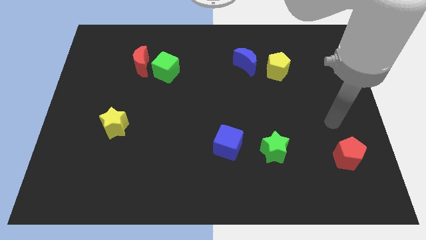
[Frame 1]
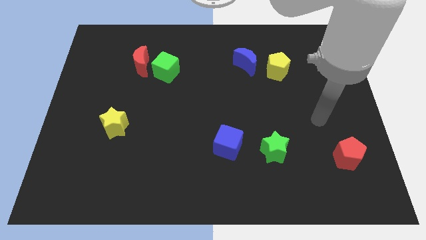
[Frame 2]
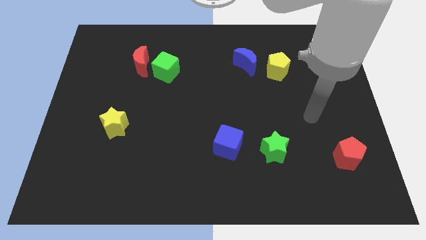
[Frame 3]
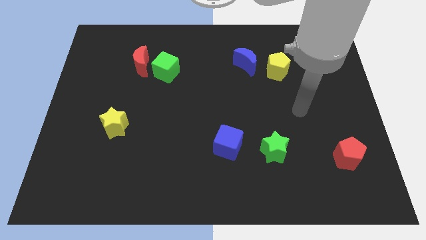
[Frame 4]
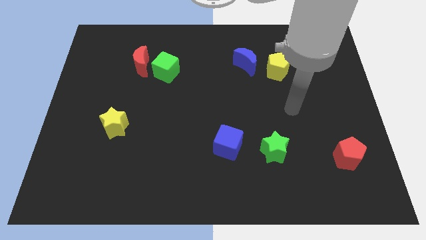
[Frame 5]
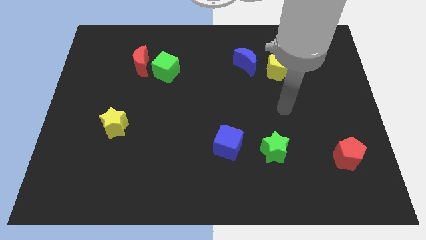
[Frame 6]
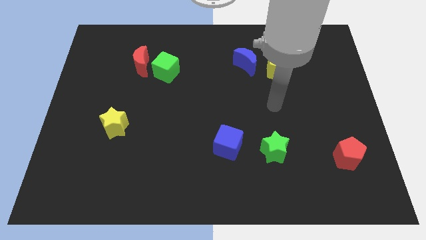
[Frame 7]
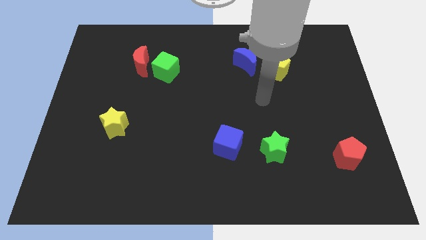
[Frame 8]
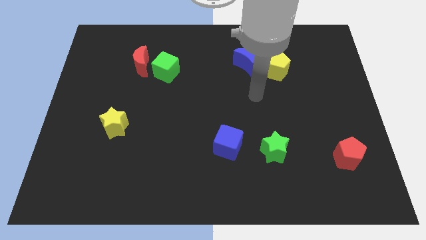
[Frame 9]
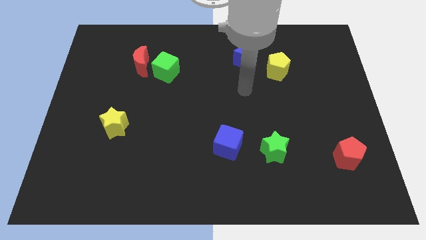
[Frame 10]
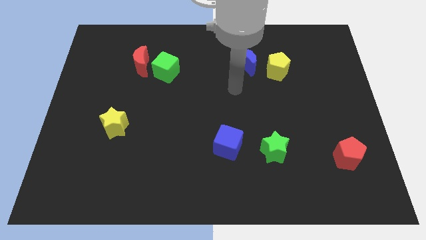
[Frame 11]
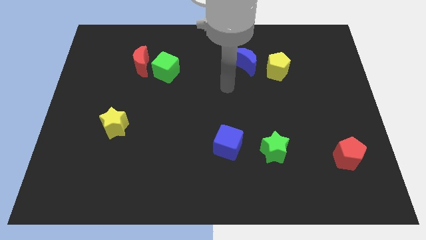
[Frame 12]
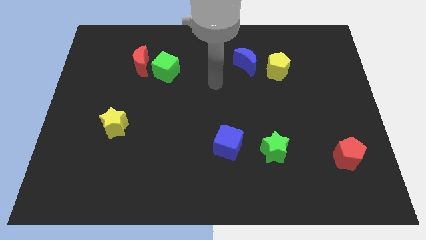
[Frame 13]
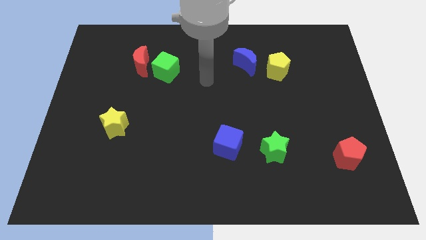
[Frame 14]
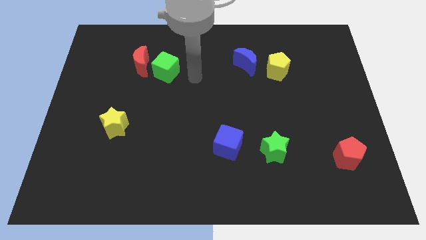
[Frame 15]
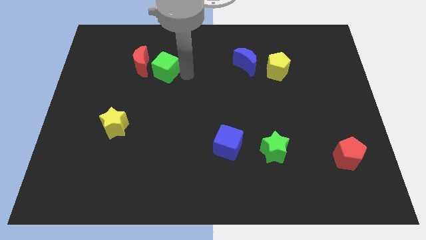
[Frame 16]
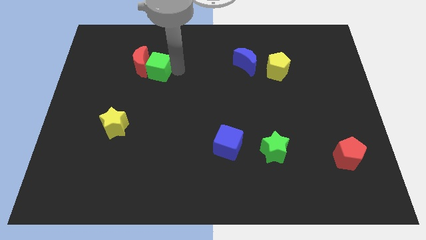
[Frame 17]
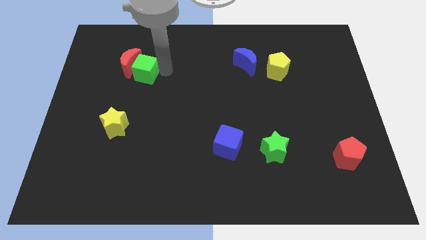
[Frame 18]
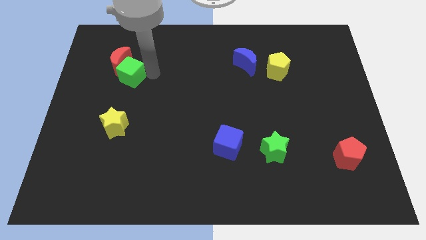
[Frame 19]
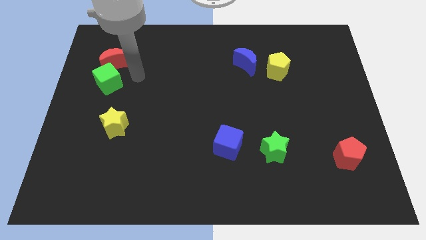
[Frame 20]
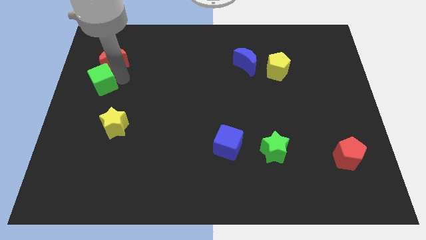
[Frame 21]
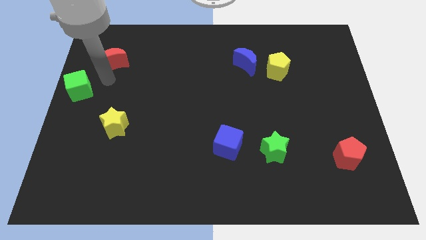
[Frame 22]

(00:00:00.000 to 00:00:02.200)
separate the red moon from the green cube

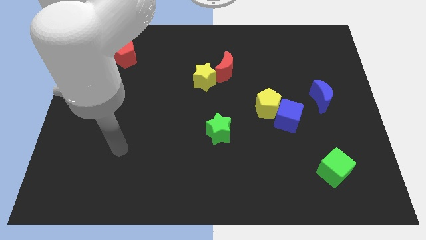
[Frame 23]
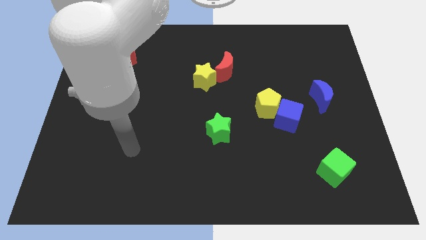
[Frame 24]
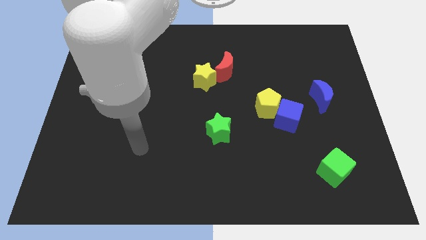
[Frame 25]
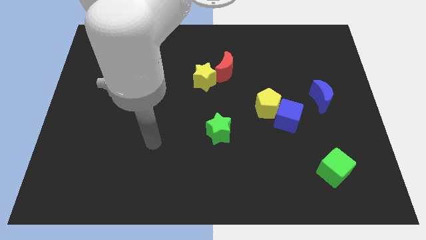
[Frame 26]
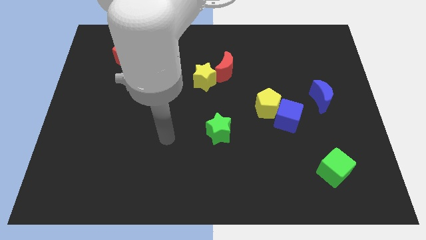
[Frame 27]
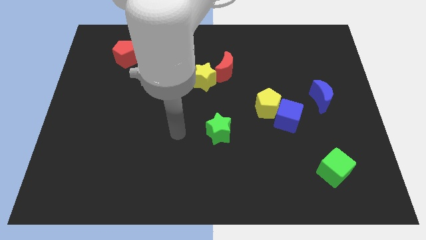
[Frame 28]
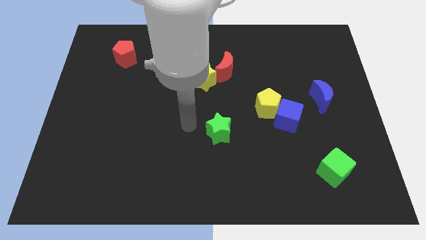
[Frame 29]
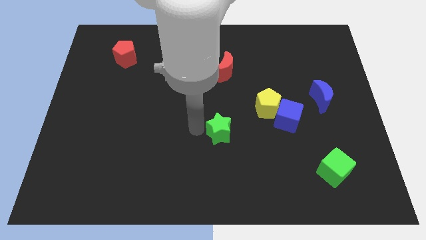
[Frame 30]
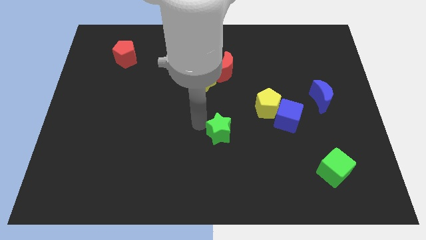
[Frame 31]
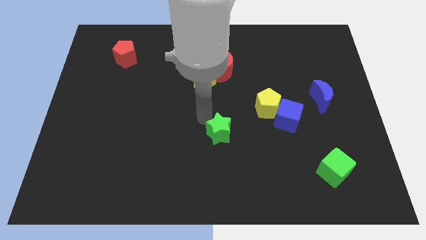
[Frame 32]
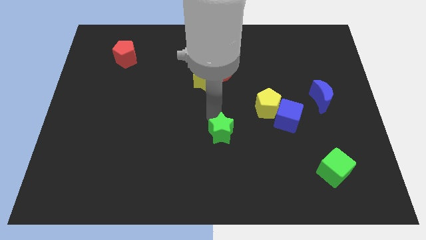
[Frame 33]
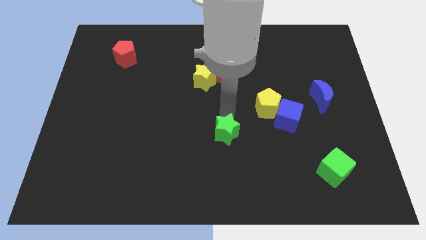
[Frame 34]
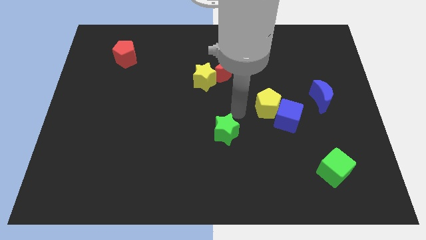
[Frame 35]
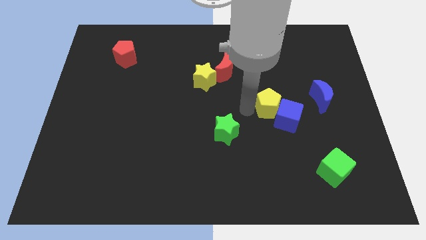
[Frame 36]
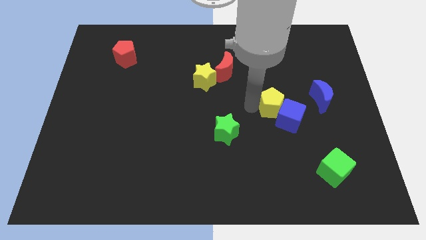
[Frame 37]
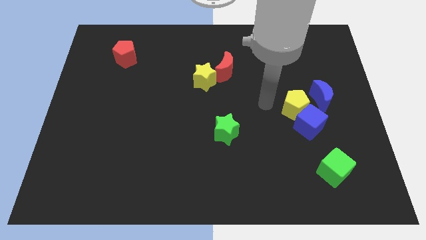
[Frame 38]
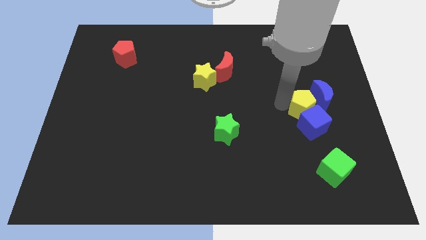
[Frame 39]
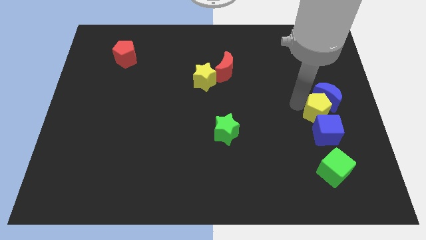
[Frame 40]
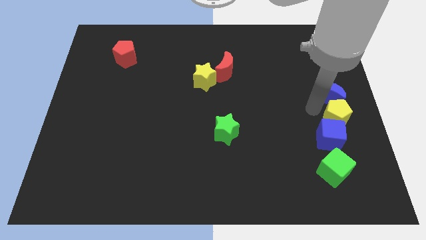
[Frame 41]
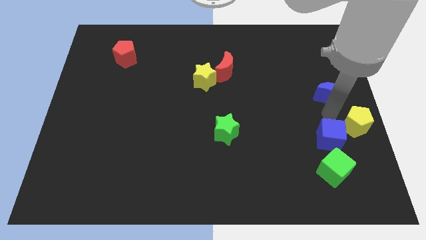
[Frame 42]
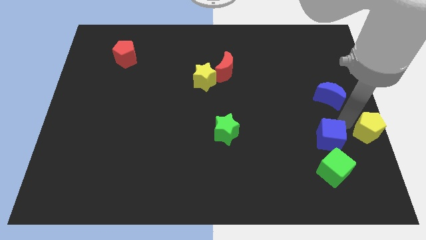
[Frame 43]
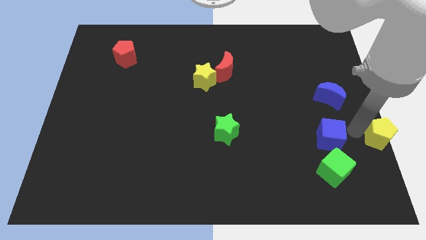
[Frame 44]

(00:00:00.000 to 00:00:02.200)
separate the blue cube from the yellow pentagon

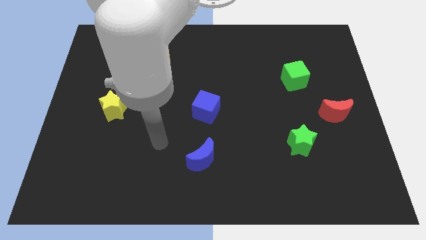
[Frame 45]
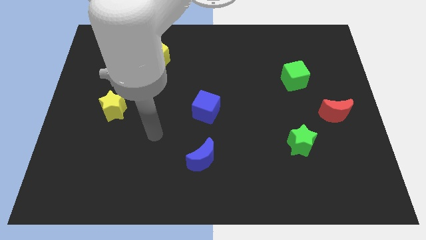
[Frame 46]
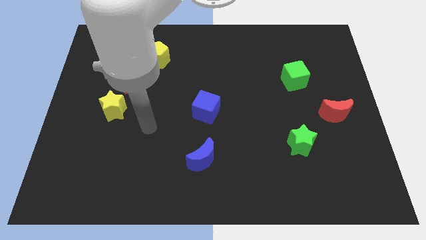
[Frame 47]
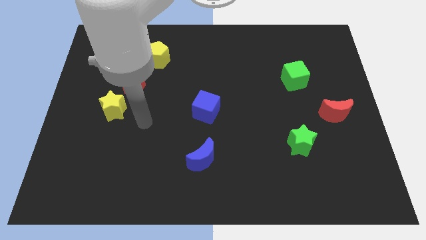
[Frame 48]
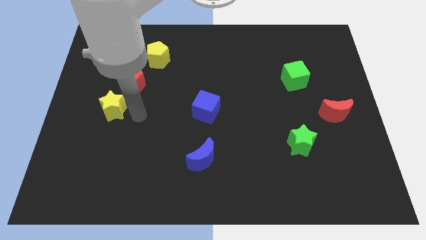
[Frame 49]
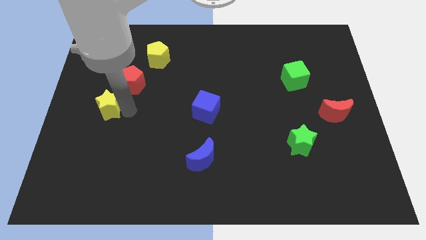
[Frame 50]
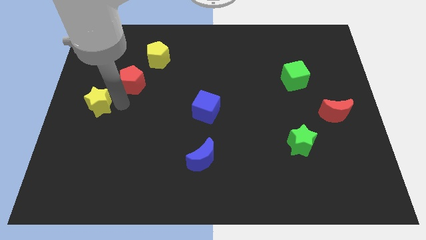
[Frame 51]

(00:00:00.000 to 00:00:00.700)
separate the red pentagon from the yellow star

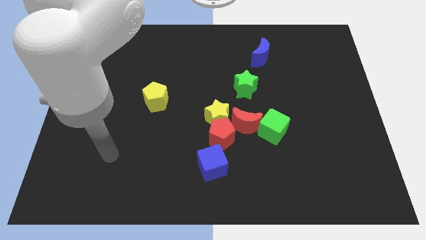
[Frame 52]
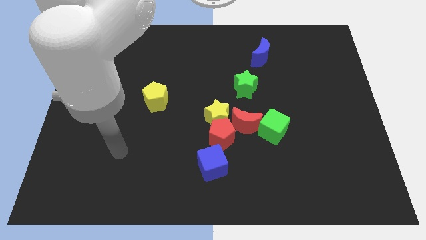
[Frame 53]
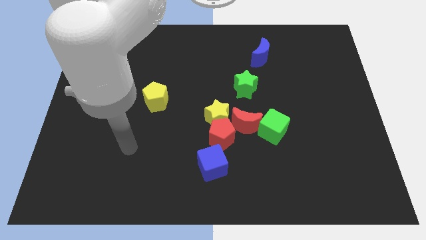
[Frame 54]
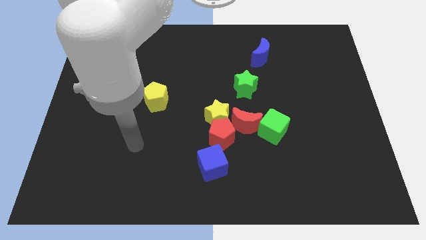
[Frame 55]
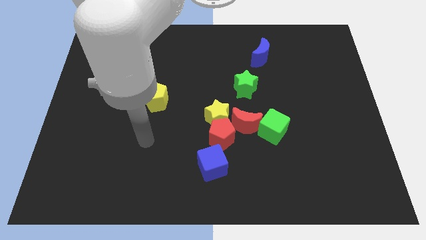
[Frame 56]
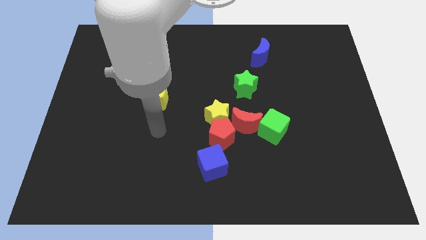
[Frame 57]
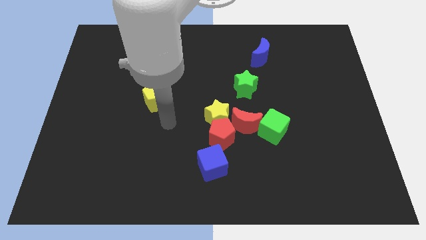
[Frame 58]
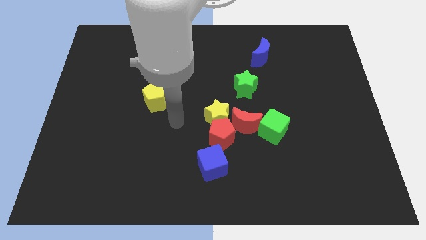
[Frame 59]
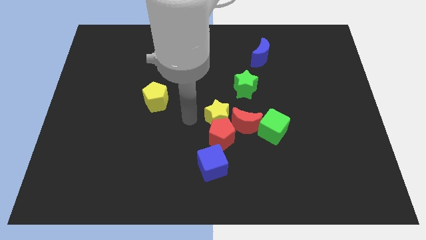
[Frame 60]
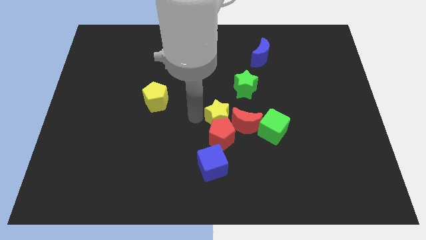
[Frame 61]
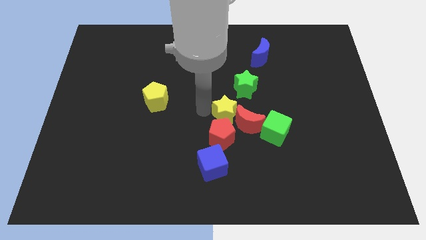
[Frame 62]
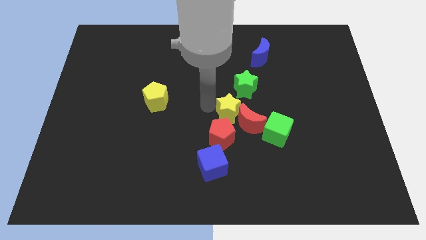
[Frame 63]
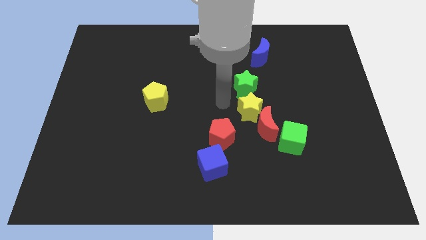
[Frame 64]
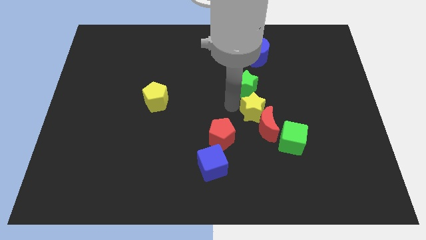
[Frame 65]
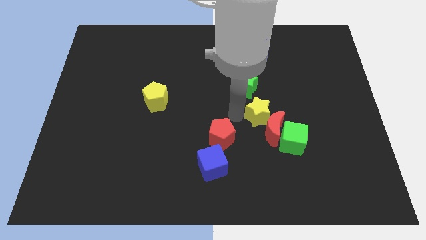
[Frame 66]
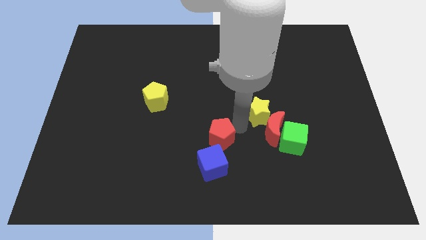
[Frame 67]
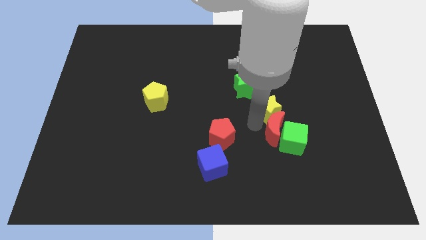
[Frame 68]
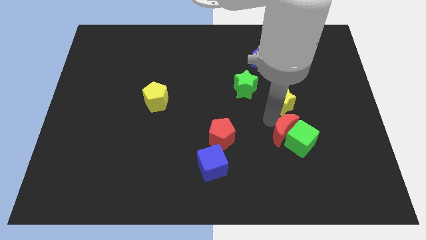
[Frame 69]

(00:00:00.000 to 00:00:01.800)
move the yellow star away from the red pentagon and red moon

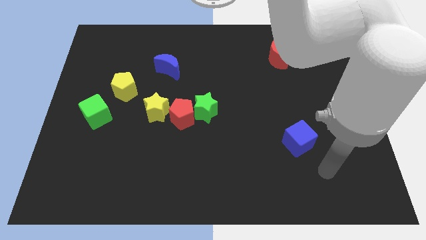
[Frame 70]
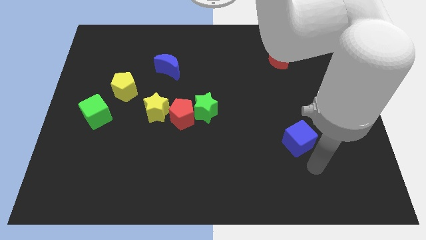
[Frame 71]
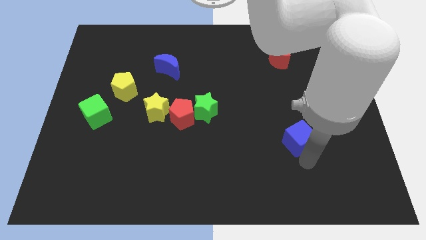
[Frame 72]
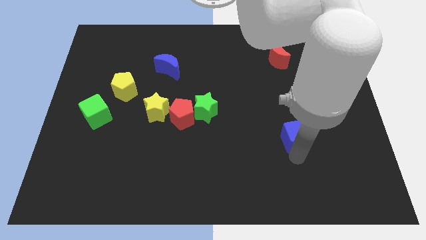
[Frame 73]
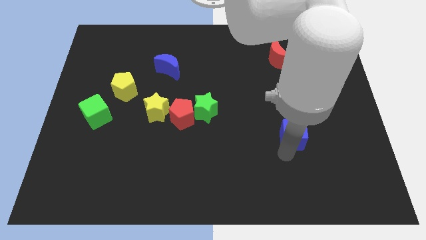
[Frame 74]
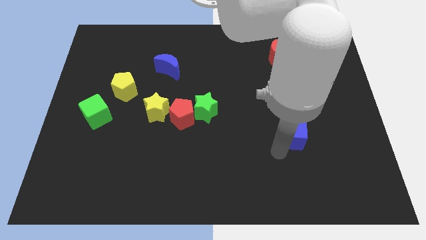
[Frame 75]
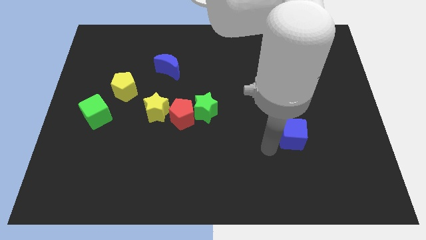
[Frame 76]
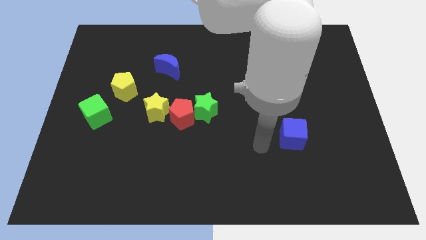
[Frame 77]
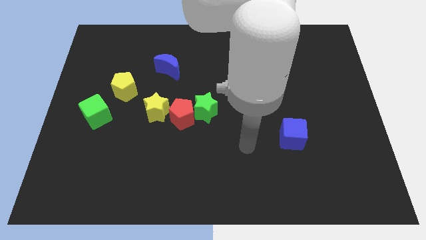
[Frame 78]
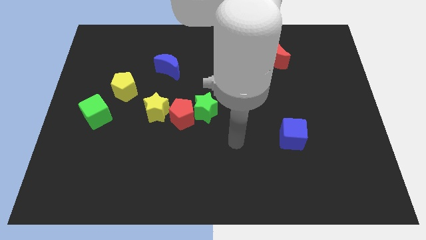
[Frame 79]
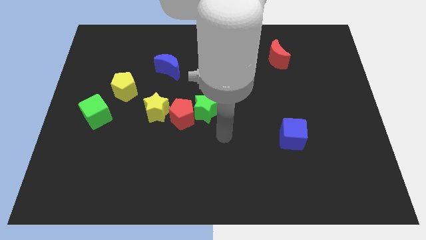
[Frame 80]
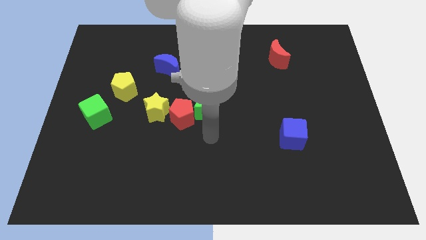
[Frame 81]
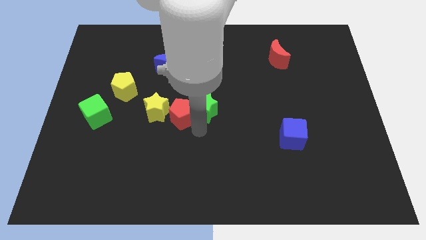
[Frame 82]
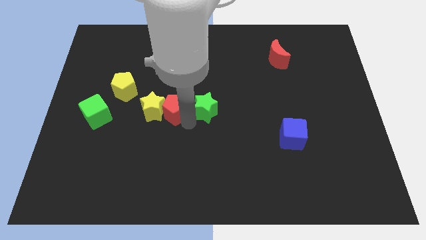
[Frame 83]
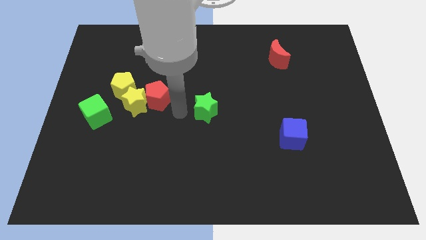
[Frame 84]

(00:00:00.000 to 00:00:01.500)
separate the green star from the red pentagon

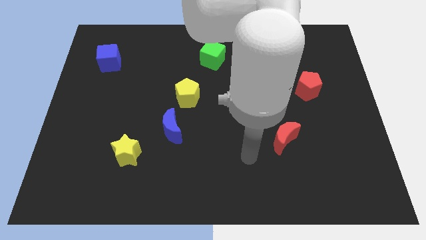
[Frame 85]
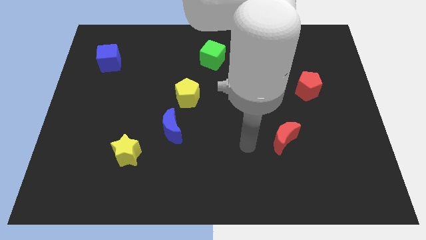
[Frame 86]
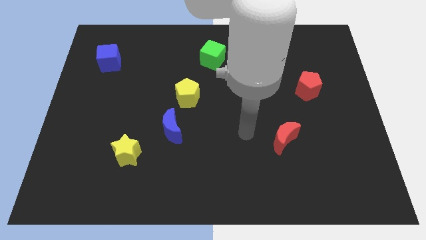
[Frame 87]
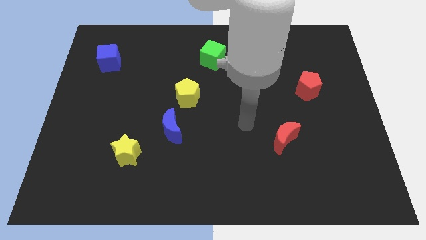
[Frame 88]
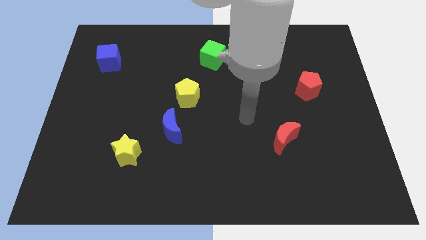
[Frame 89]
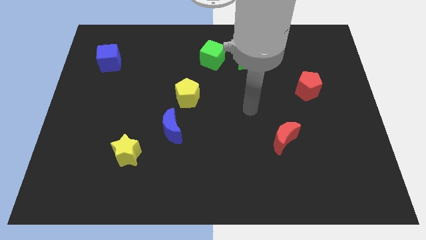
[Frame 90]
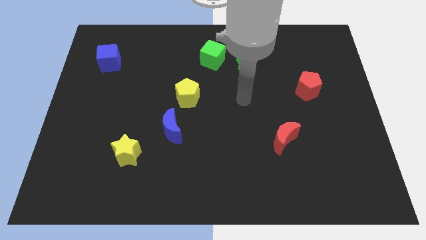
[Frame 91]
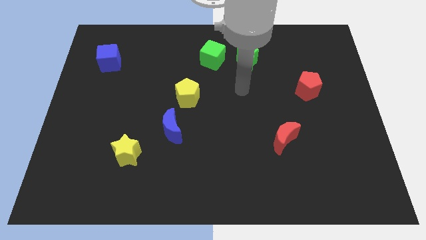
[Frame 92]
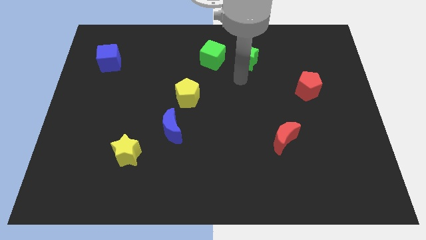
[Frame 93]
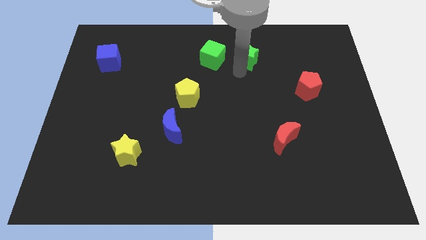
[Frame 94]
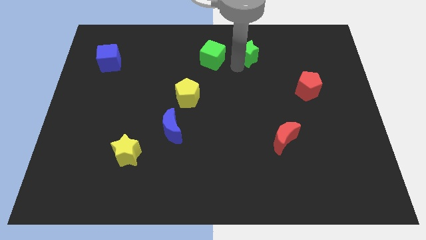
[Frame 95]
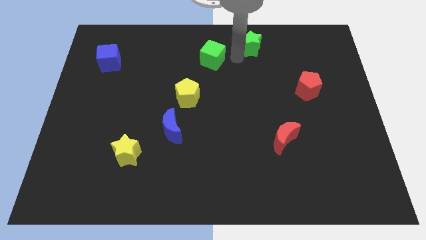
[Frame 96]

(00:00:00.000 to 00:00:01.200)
separate the green cube from the green star
